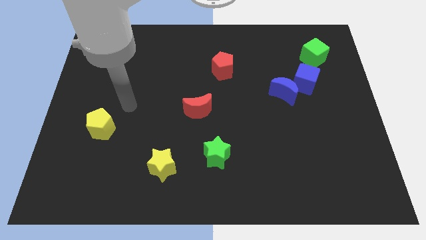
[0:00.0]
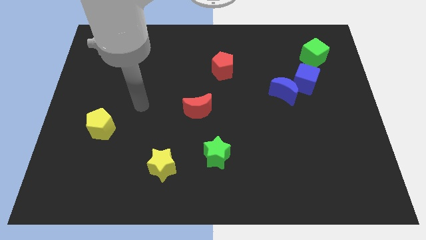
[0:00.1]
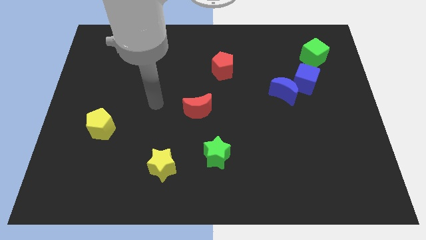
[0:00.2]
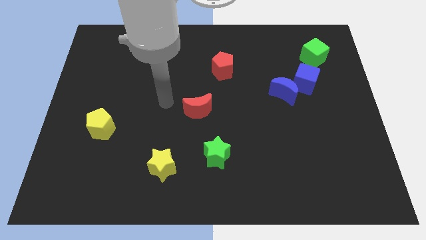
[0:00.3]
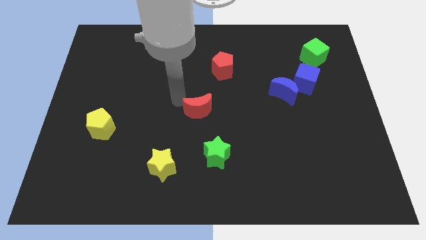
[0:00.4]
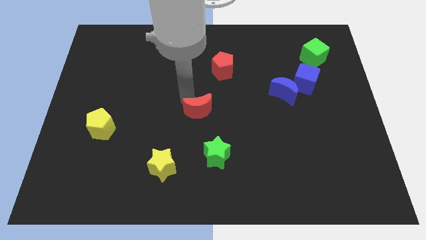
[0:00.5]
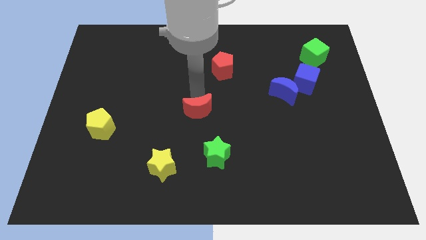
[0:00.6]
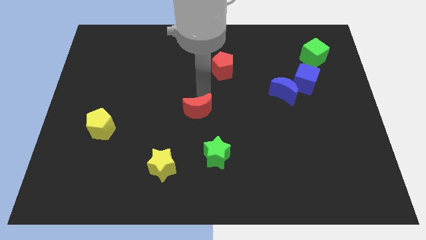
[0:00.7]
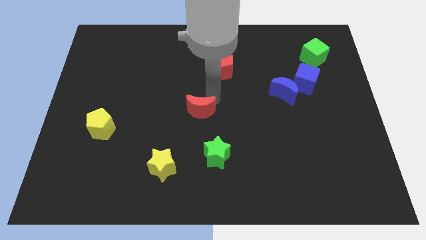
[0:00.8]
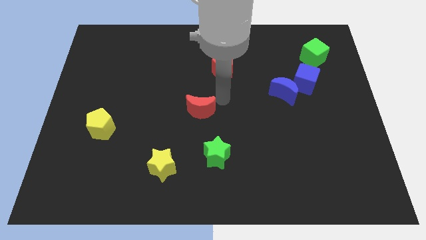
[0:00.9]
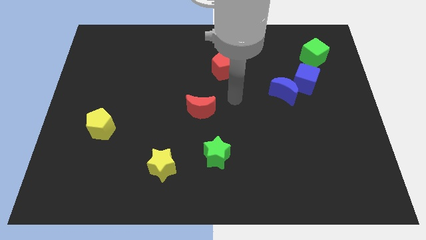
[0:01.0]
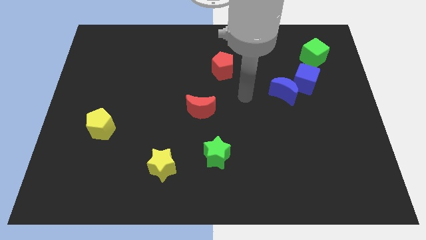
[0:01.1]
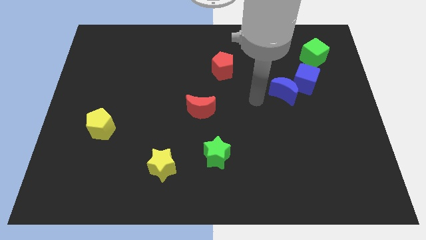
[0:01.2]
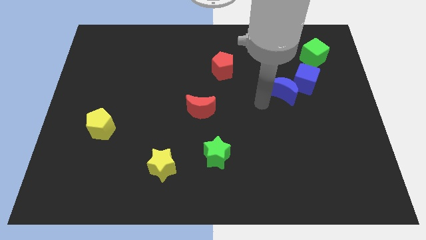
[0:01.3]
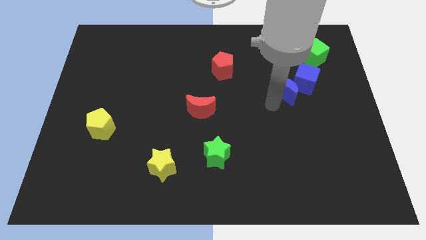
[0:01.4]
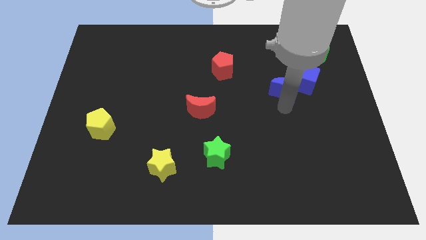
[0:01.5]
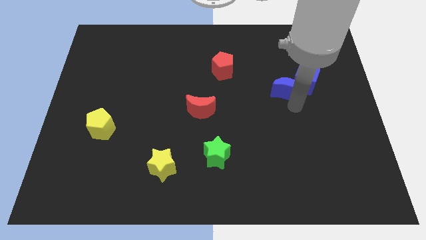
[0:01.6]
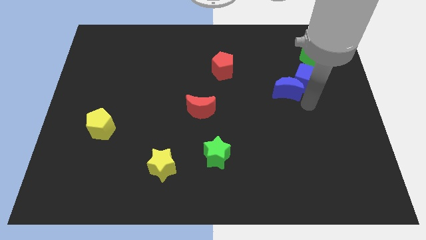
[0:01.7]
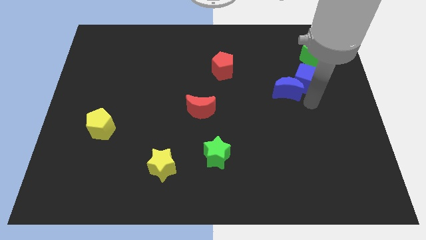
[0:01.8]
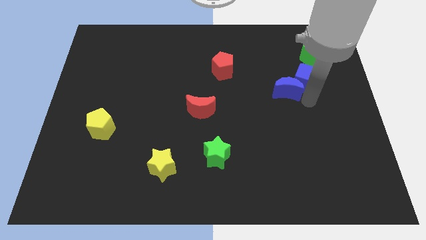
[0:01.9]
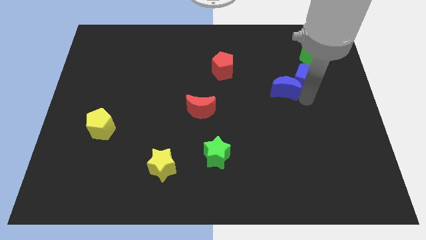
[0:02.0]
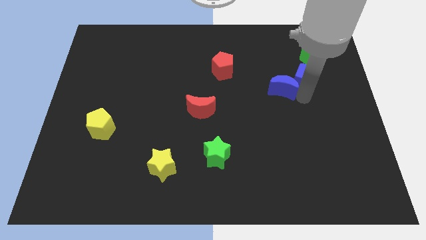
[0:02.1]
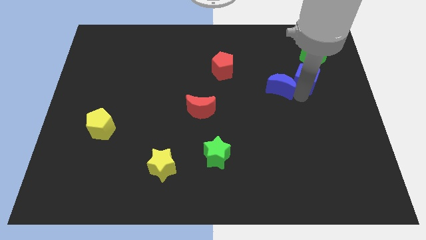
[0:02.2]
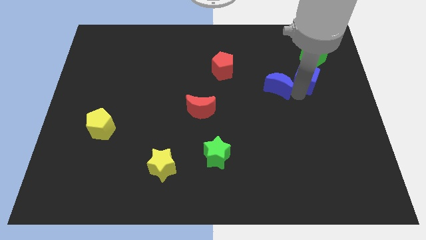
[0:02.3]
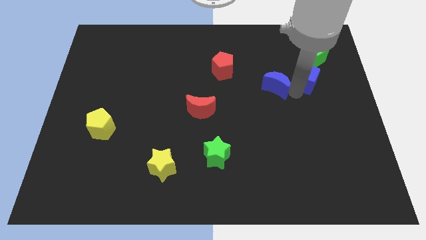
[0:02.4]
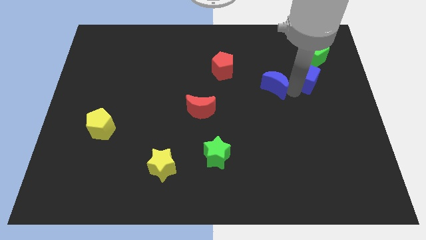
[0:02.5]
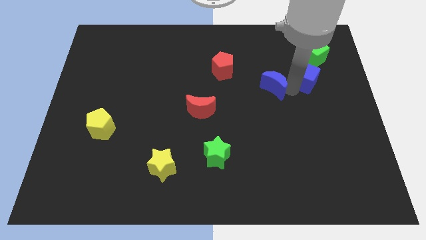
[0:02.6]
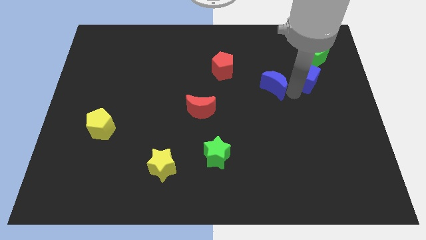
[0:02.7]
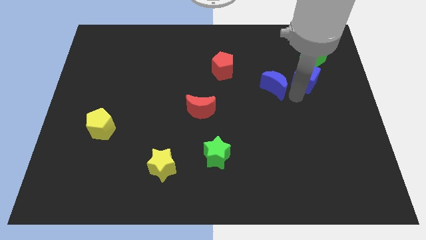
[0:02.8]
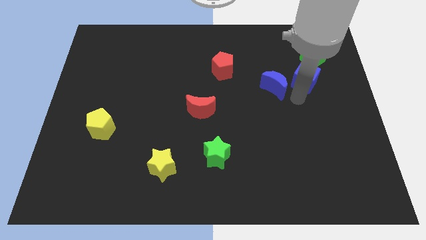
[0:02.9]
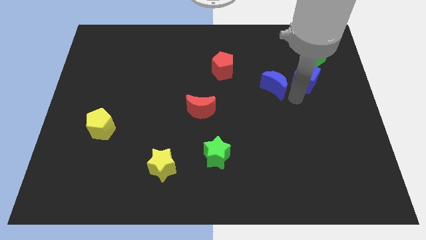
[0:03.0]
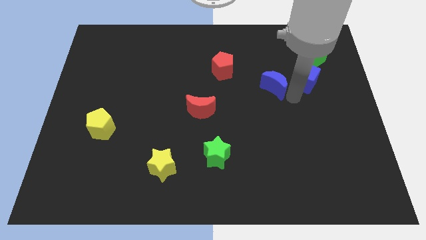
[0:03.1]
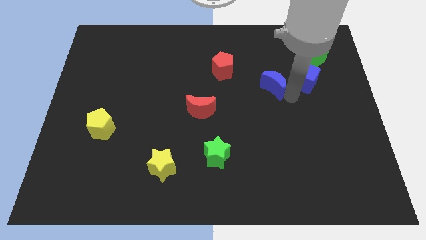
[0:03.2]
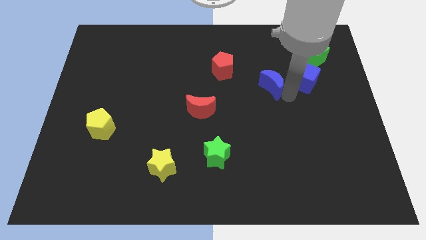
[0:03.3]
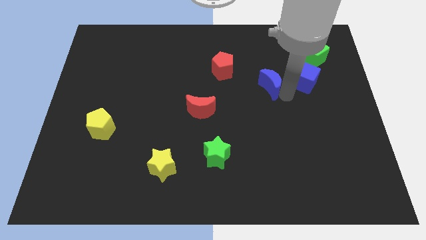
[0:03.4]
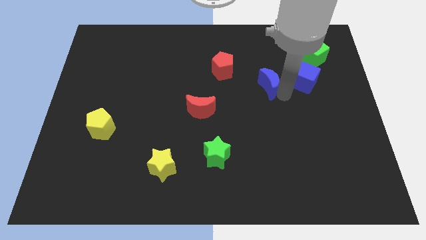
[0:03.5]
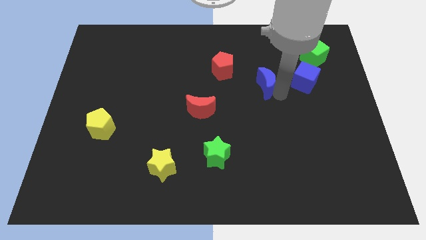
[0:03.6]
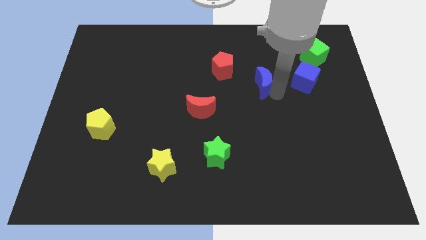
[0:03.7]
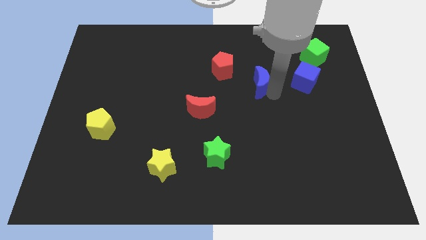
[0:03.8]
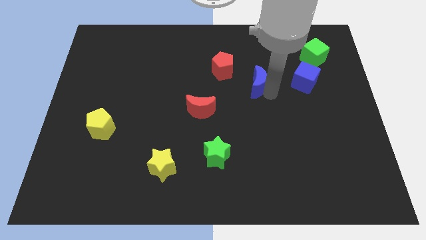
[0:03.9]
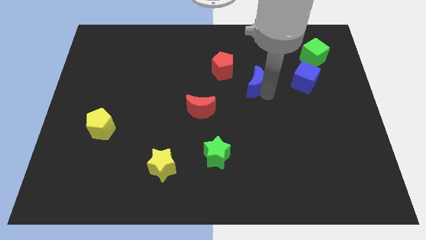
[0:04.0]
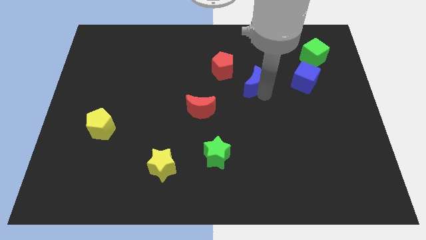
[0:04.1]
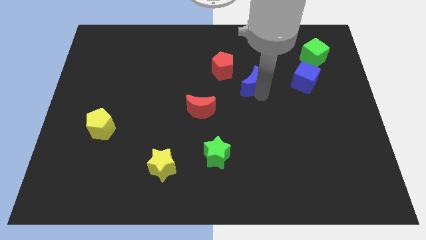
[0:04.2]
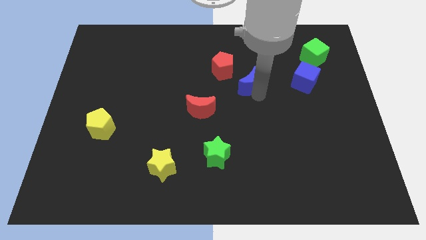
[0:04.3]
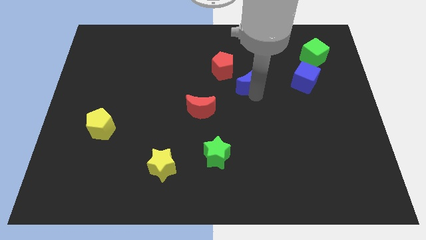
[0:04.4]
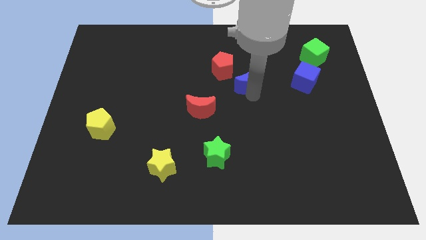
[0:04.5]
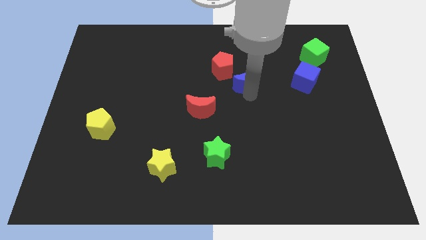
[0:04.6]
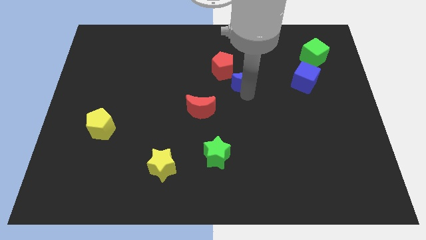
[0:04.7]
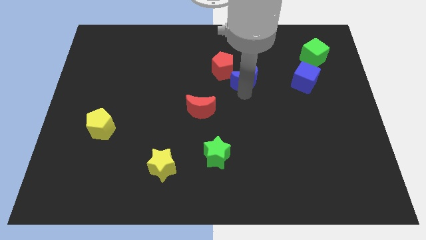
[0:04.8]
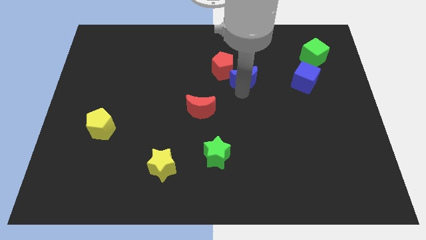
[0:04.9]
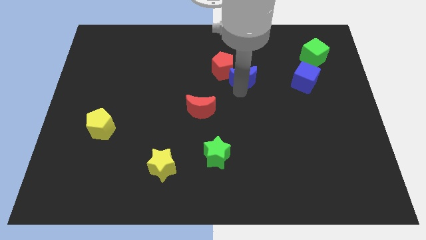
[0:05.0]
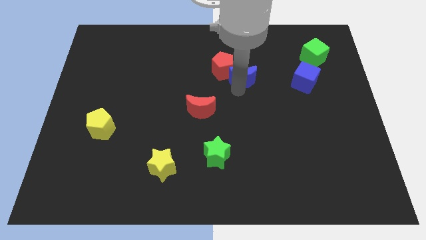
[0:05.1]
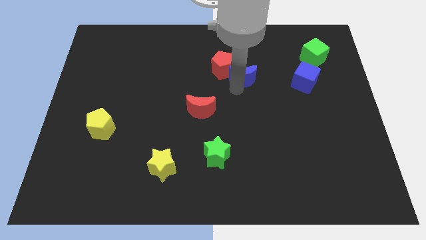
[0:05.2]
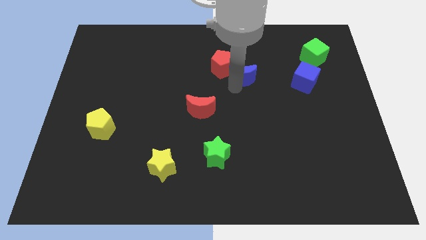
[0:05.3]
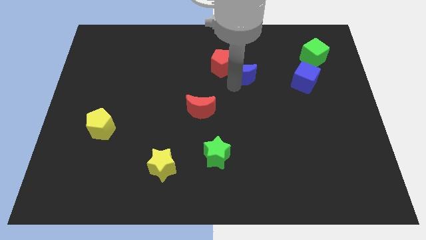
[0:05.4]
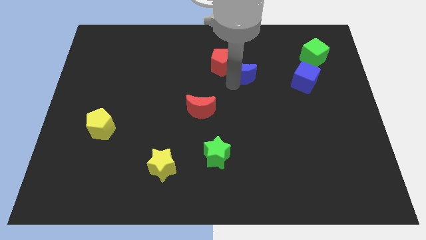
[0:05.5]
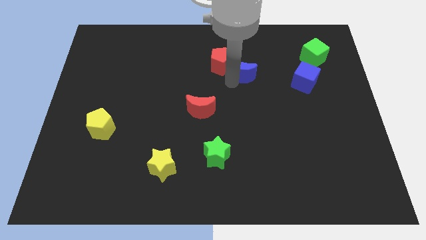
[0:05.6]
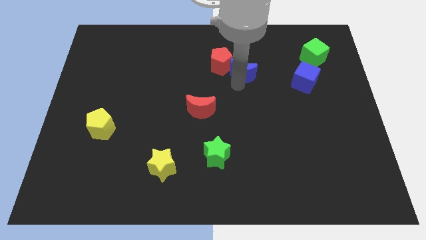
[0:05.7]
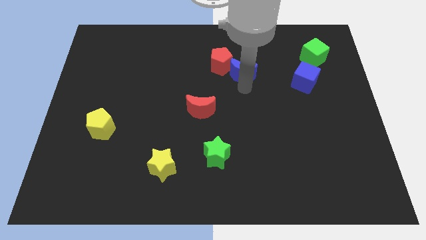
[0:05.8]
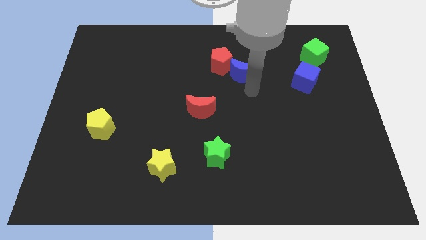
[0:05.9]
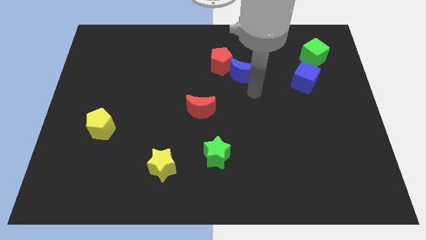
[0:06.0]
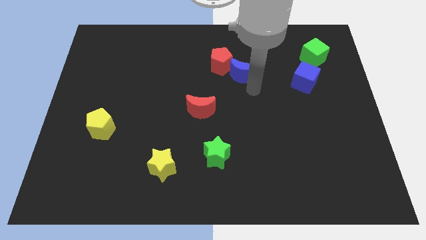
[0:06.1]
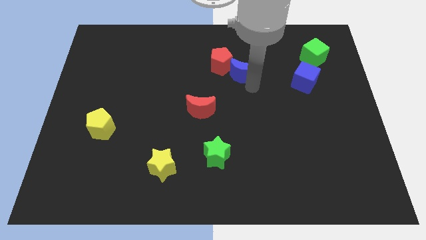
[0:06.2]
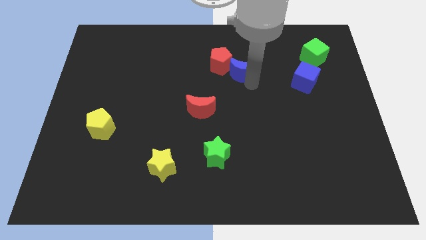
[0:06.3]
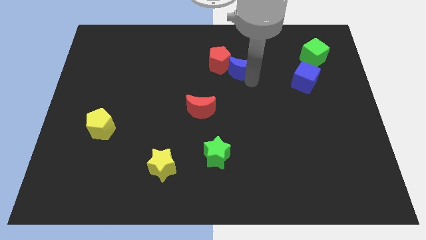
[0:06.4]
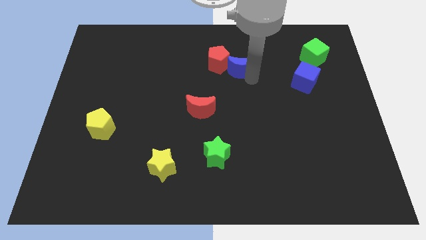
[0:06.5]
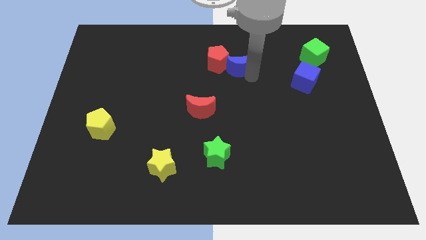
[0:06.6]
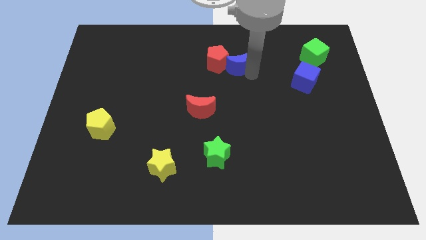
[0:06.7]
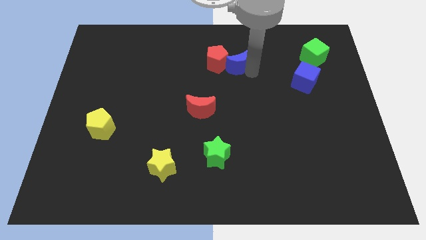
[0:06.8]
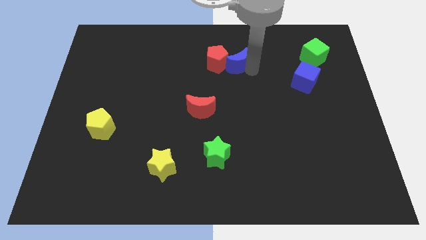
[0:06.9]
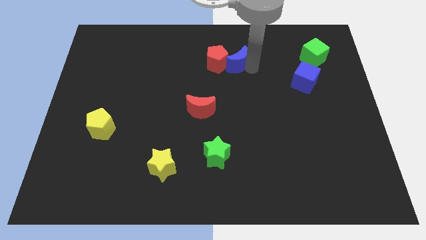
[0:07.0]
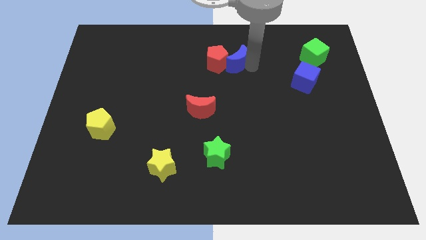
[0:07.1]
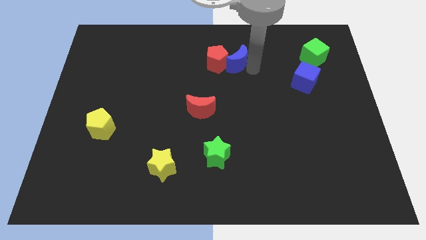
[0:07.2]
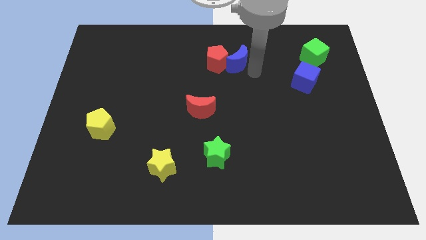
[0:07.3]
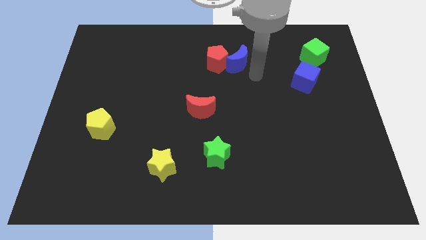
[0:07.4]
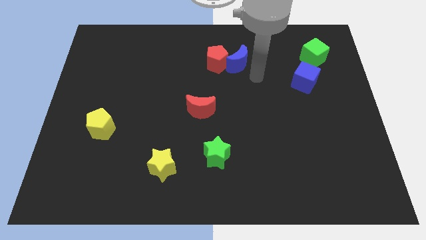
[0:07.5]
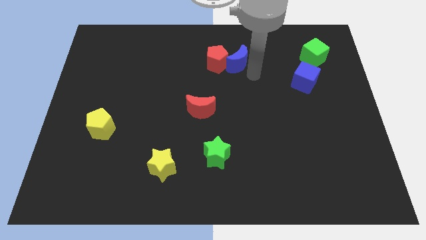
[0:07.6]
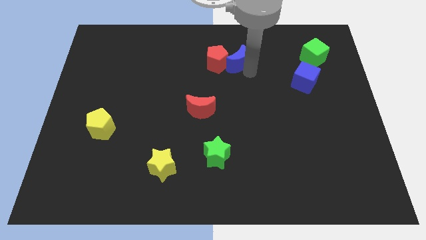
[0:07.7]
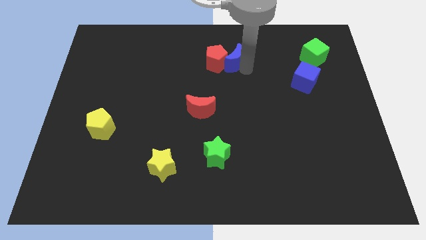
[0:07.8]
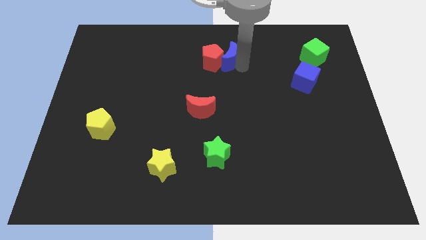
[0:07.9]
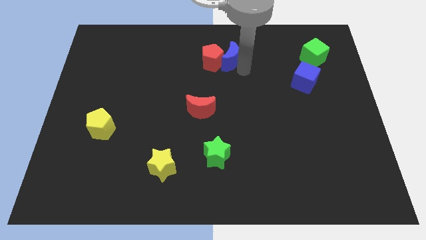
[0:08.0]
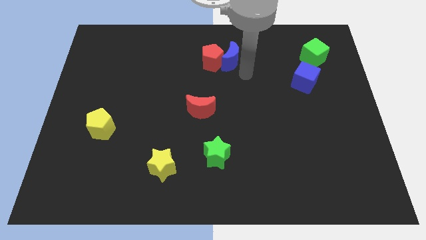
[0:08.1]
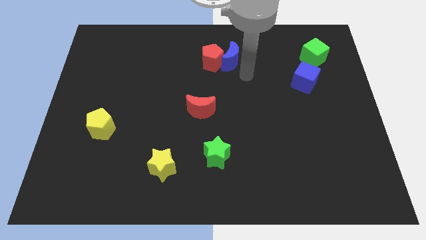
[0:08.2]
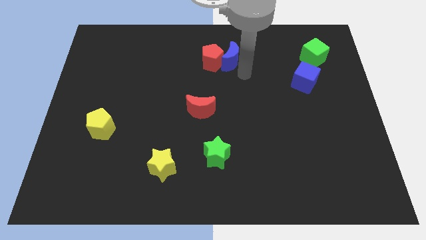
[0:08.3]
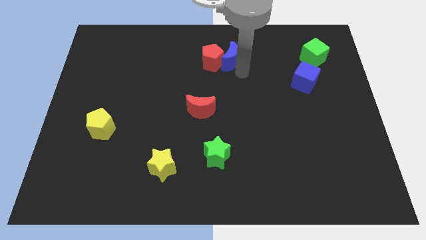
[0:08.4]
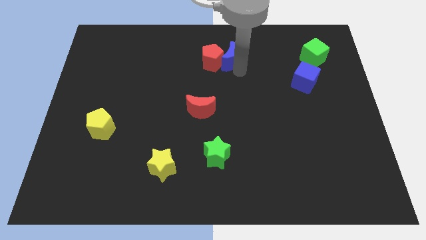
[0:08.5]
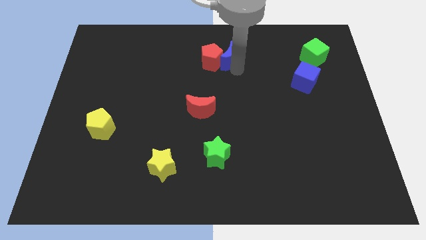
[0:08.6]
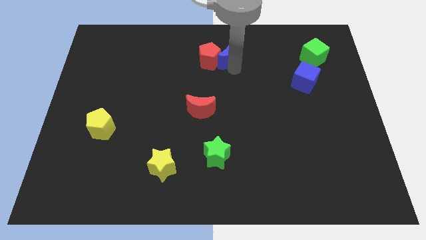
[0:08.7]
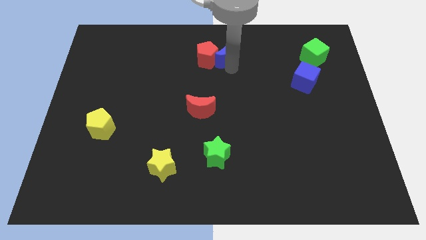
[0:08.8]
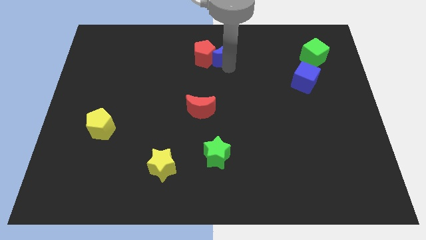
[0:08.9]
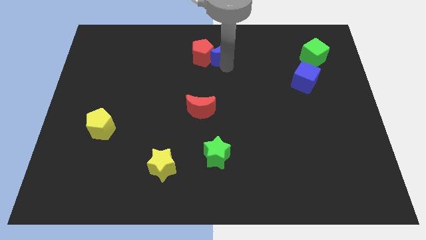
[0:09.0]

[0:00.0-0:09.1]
push the blue moon to the top
